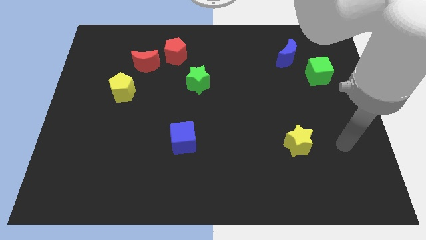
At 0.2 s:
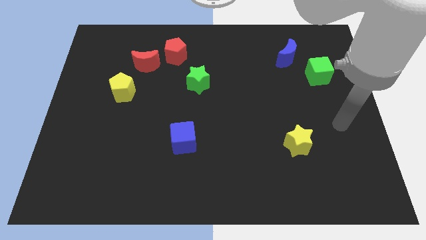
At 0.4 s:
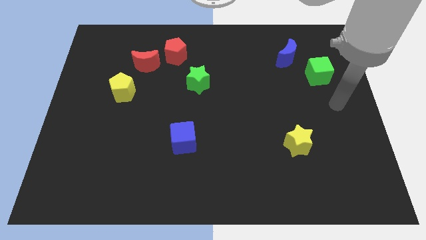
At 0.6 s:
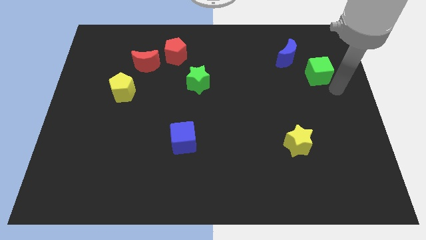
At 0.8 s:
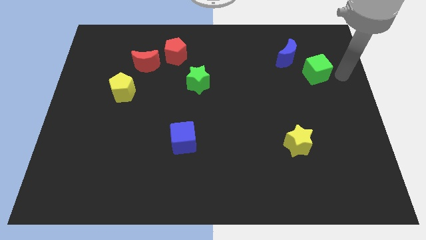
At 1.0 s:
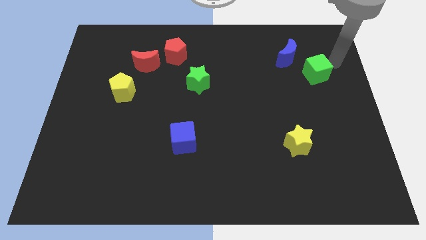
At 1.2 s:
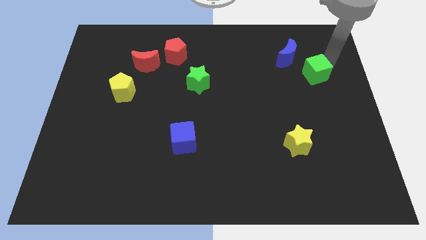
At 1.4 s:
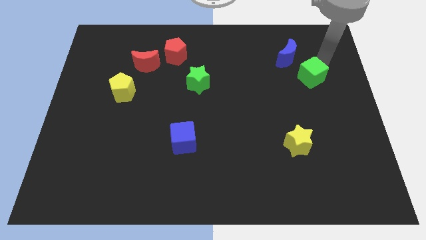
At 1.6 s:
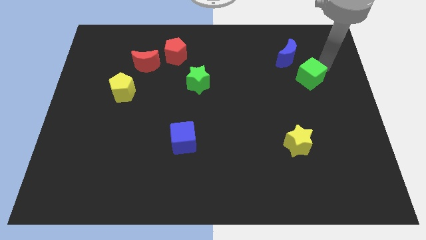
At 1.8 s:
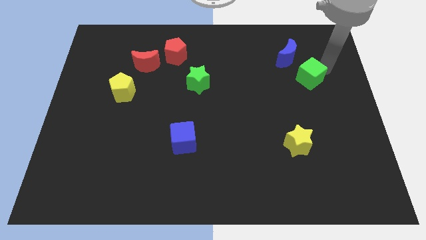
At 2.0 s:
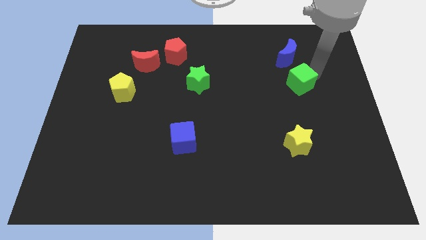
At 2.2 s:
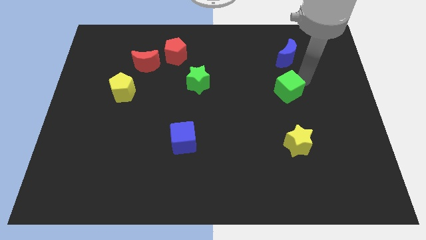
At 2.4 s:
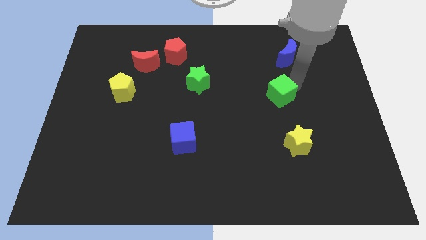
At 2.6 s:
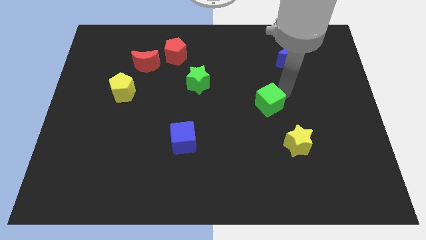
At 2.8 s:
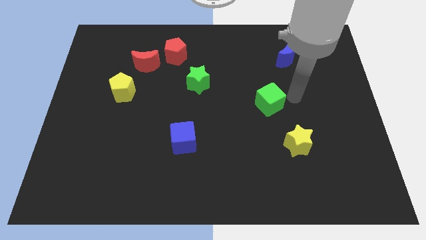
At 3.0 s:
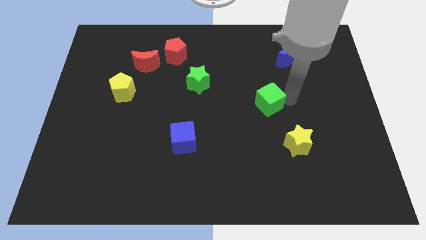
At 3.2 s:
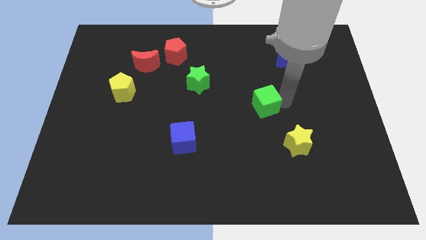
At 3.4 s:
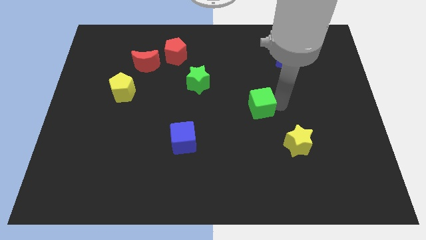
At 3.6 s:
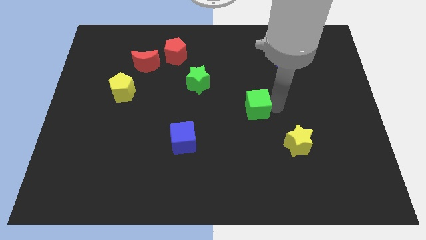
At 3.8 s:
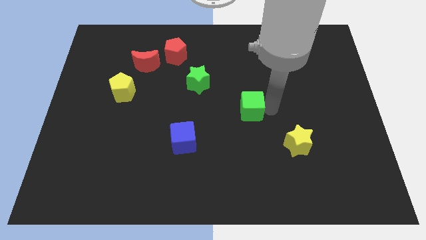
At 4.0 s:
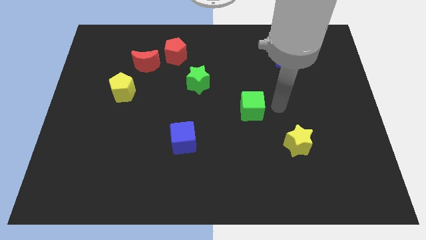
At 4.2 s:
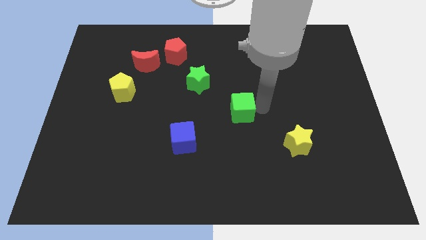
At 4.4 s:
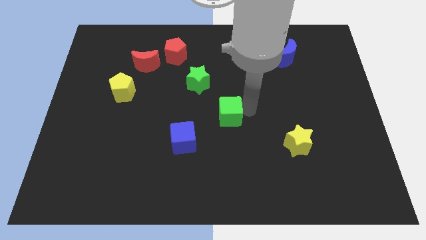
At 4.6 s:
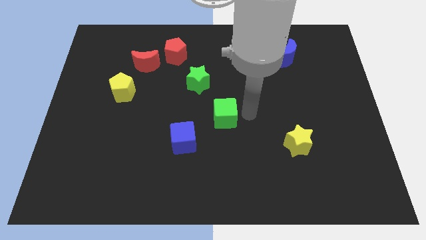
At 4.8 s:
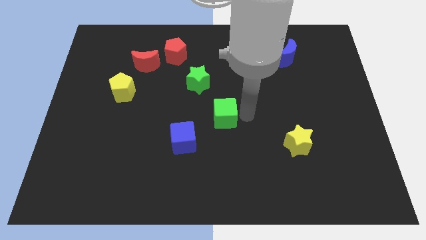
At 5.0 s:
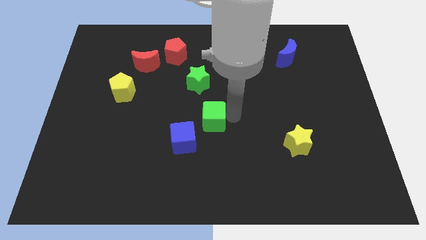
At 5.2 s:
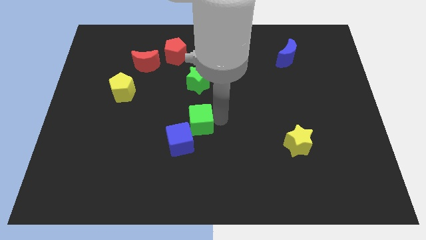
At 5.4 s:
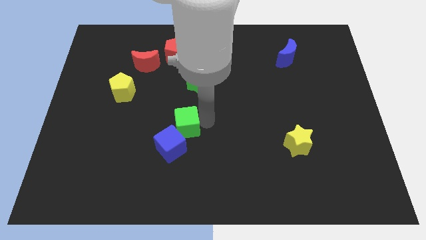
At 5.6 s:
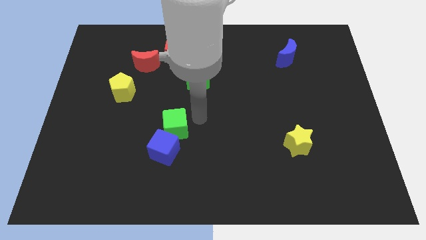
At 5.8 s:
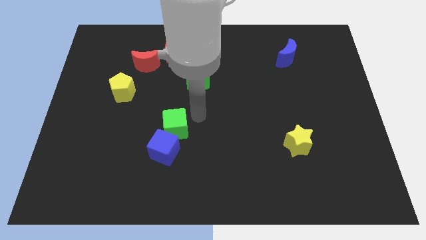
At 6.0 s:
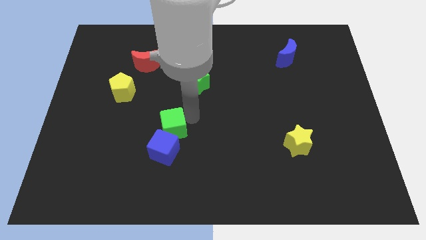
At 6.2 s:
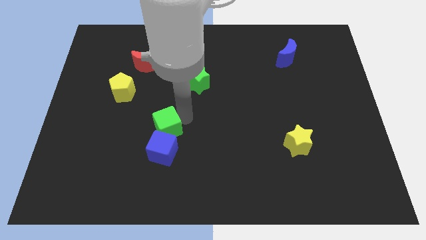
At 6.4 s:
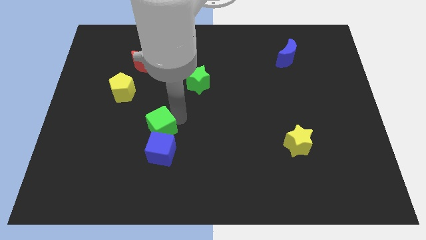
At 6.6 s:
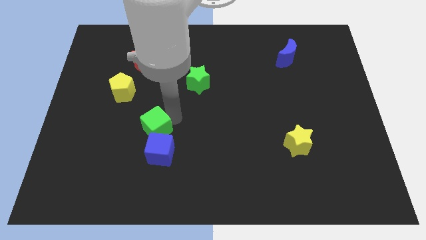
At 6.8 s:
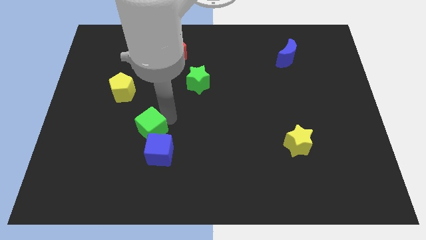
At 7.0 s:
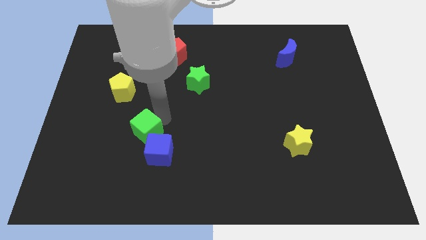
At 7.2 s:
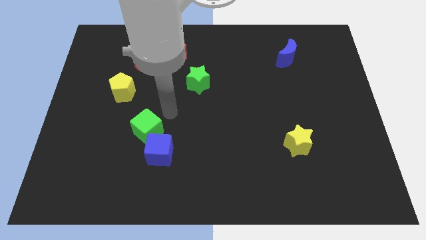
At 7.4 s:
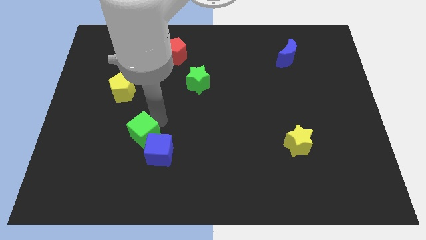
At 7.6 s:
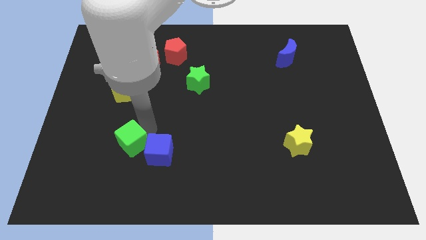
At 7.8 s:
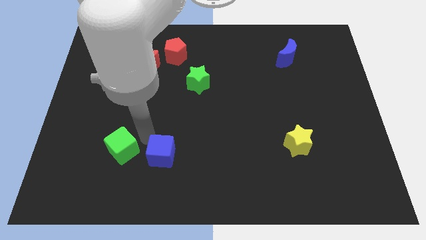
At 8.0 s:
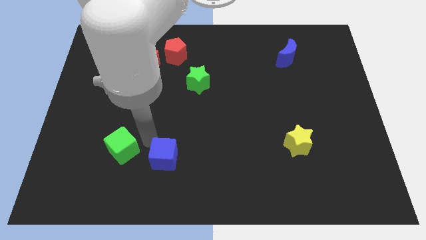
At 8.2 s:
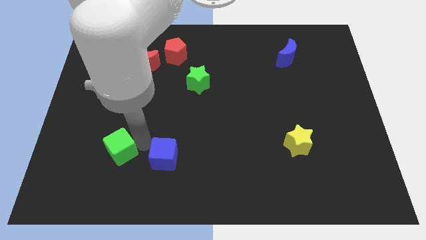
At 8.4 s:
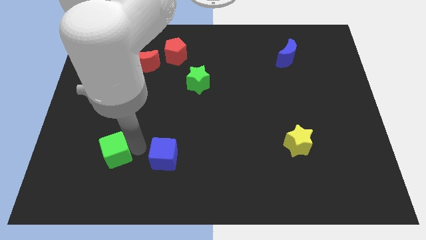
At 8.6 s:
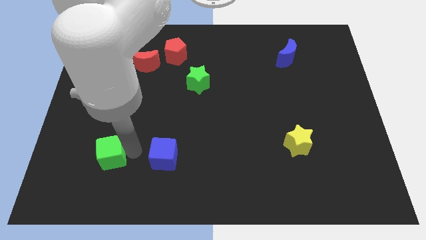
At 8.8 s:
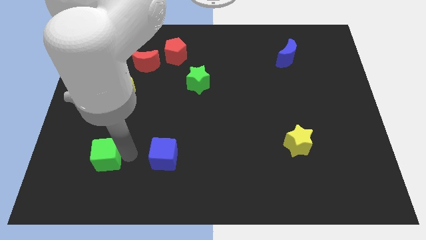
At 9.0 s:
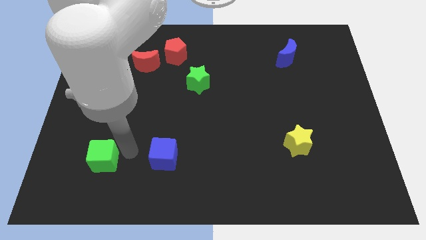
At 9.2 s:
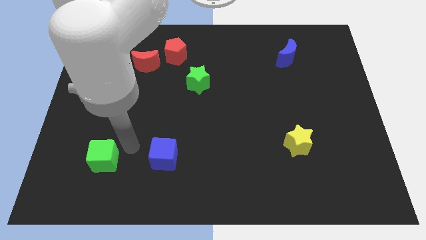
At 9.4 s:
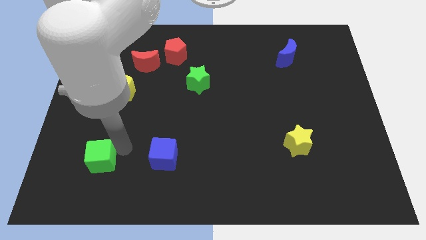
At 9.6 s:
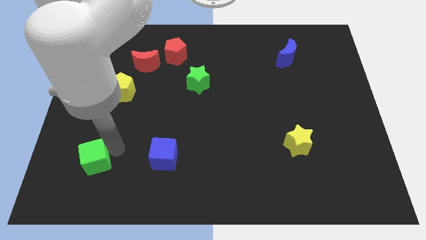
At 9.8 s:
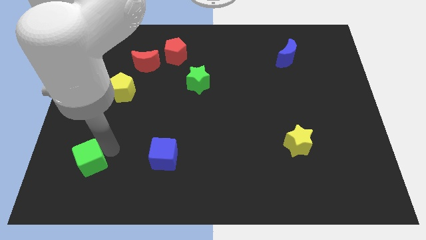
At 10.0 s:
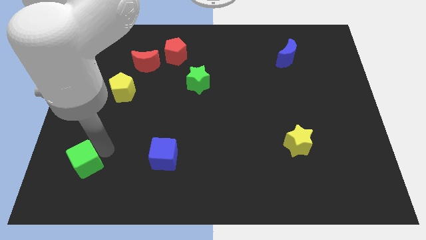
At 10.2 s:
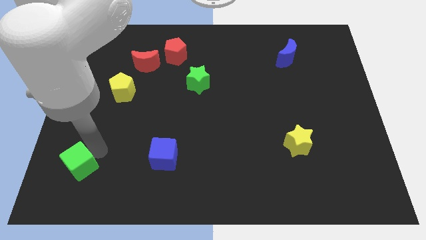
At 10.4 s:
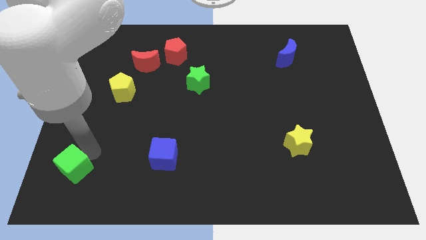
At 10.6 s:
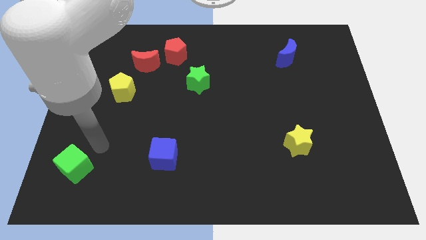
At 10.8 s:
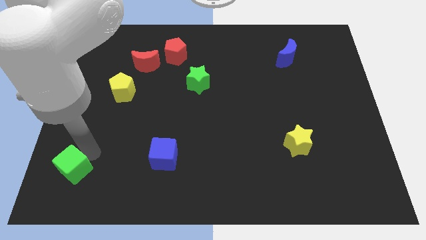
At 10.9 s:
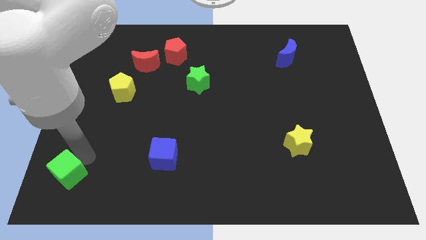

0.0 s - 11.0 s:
move the green cube to the bottom left of the board
